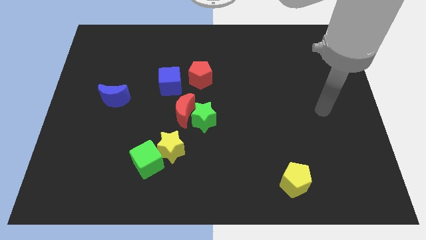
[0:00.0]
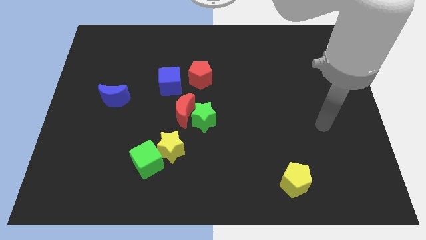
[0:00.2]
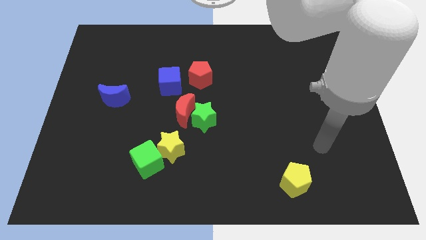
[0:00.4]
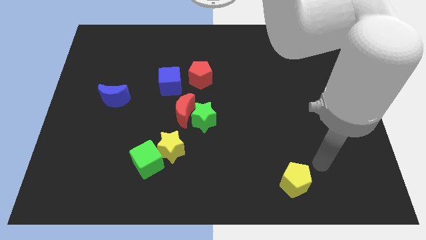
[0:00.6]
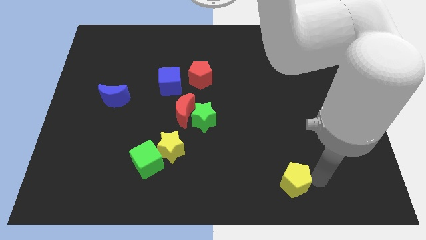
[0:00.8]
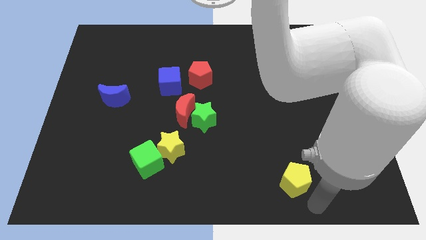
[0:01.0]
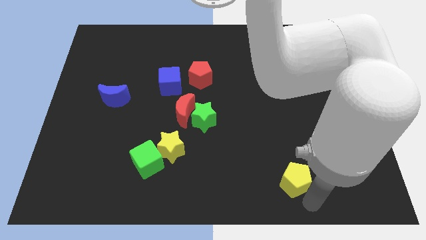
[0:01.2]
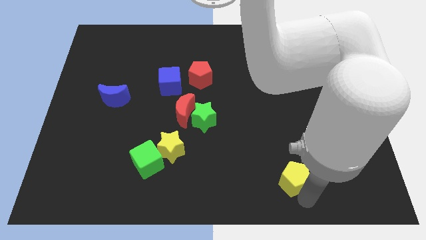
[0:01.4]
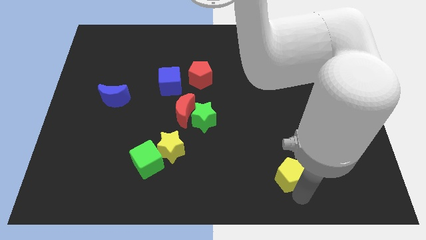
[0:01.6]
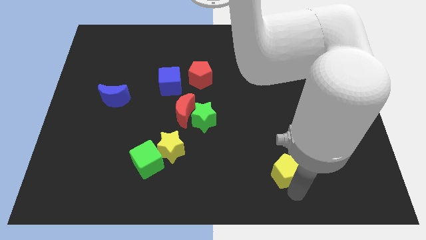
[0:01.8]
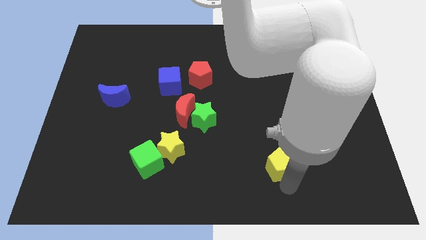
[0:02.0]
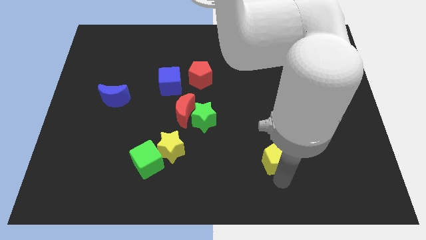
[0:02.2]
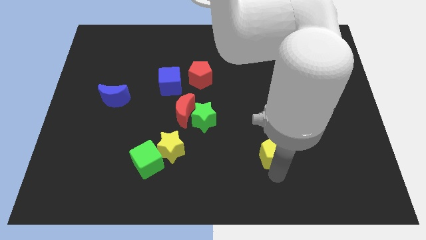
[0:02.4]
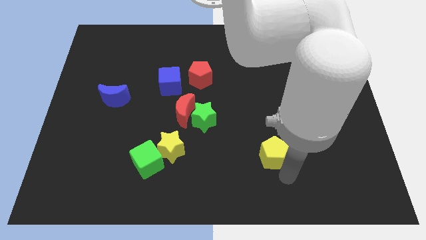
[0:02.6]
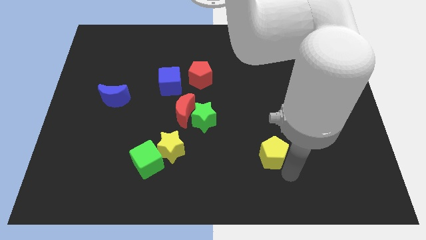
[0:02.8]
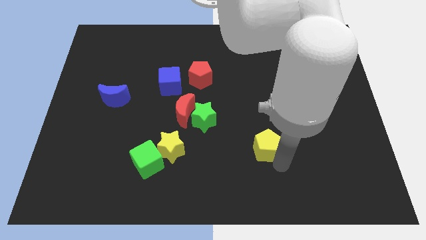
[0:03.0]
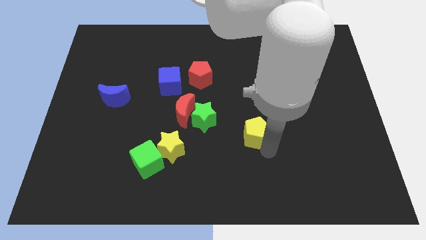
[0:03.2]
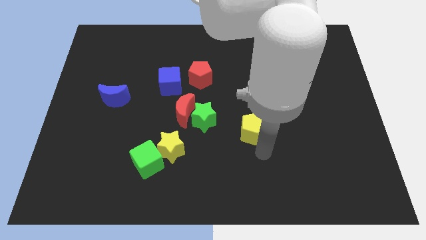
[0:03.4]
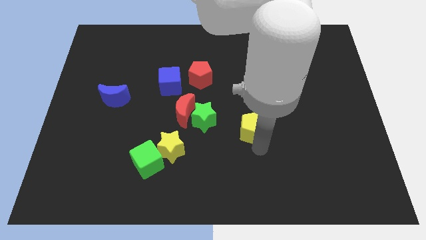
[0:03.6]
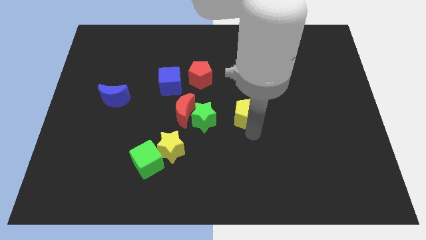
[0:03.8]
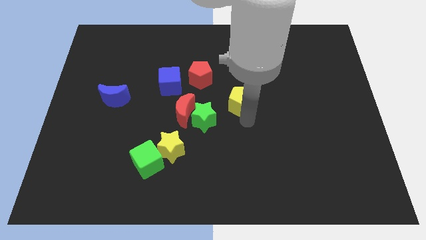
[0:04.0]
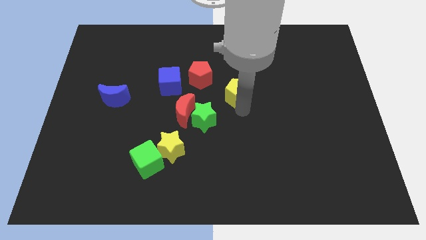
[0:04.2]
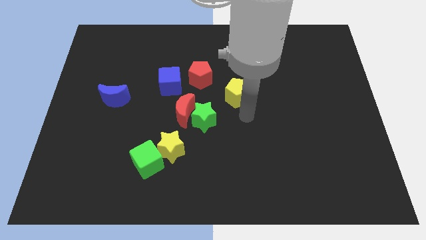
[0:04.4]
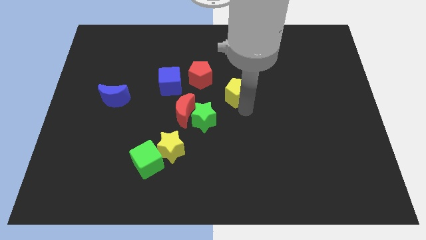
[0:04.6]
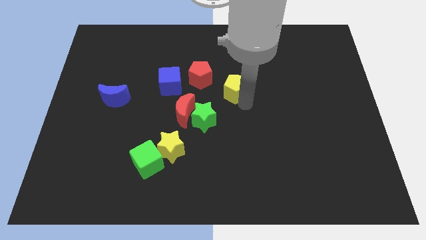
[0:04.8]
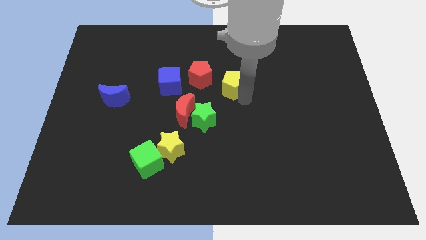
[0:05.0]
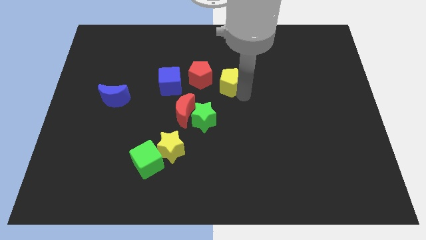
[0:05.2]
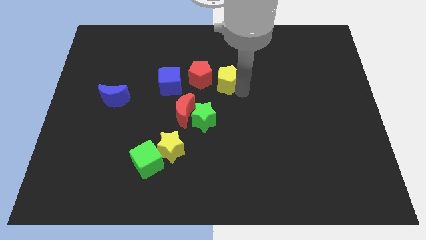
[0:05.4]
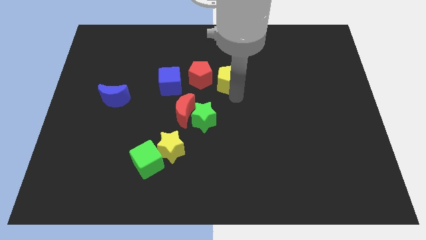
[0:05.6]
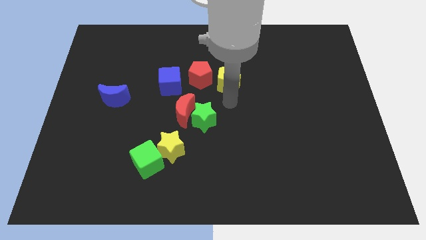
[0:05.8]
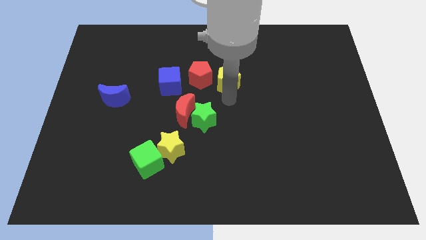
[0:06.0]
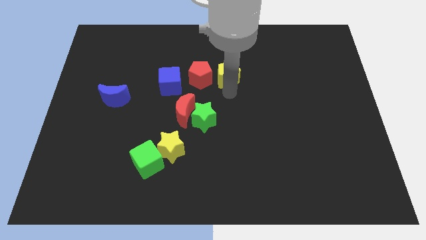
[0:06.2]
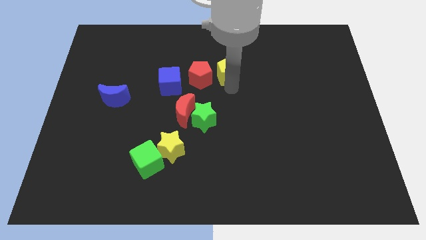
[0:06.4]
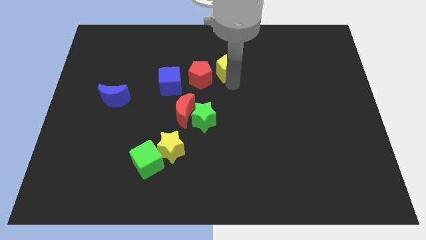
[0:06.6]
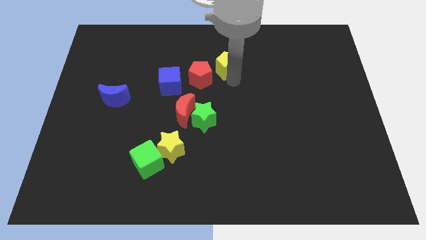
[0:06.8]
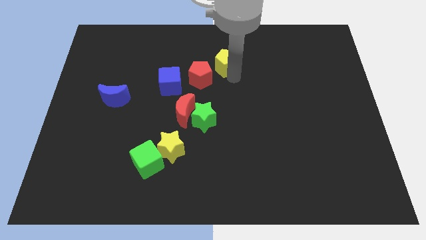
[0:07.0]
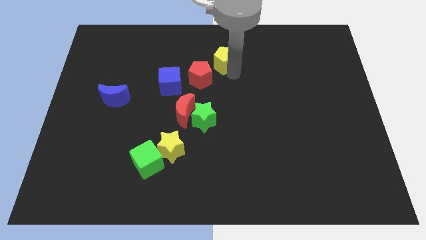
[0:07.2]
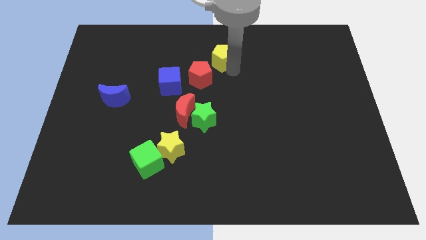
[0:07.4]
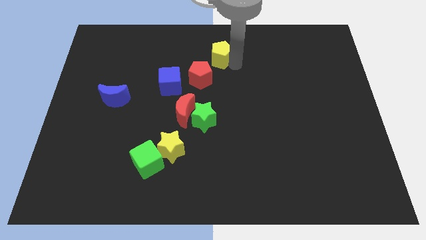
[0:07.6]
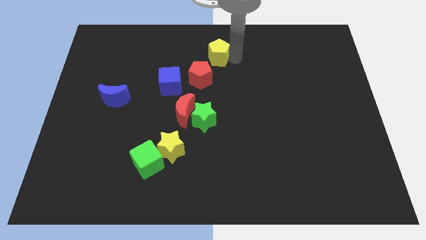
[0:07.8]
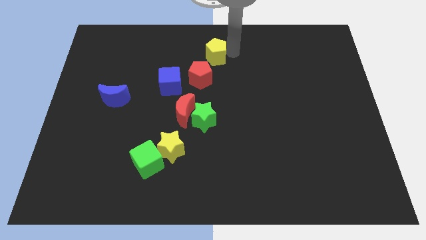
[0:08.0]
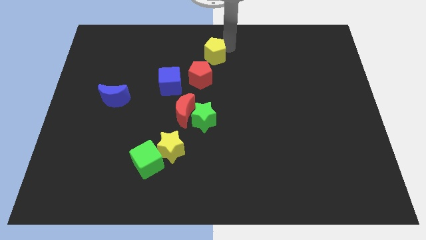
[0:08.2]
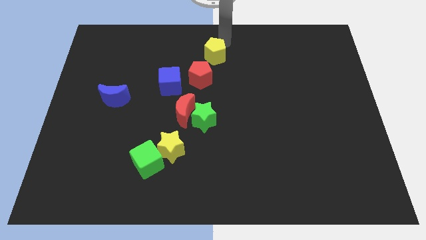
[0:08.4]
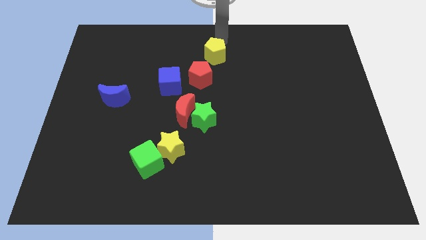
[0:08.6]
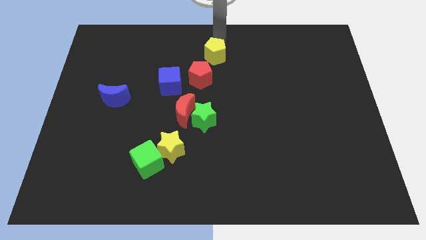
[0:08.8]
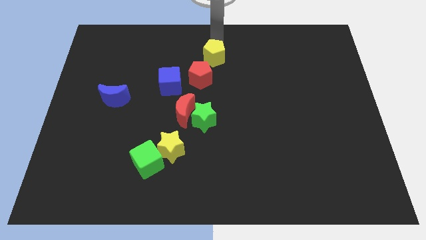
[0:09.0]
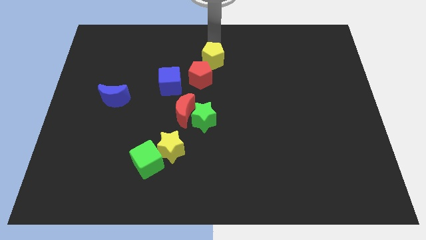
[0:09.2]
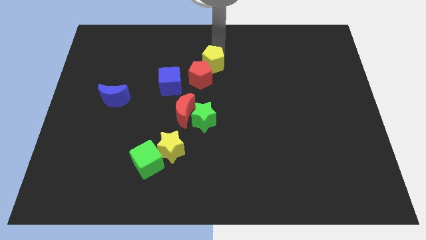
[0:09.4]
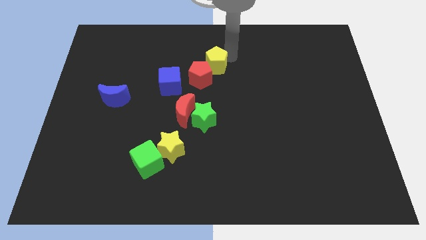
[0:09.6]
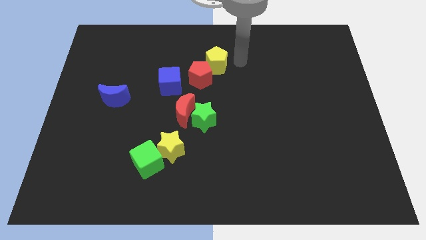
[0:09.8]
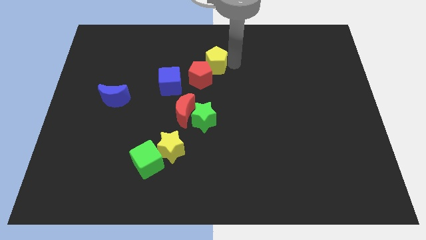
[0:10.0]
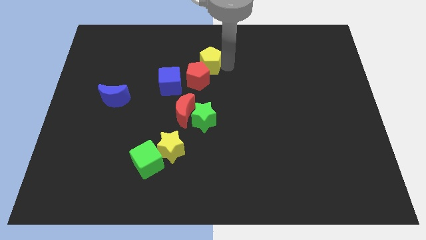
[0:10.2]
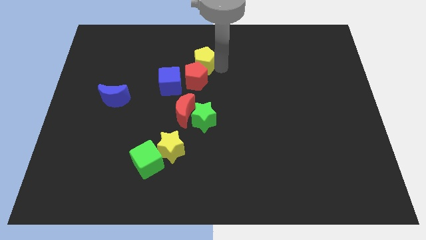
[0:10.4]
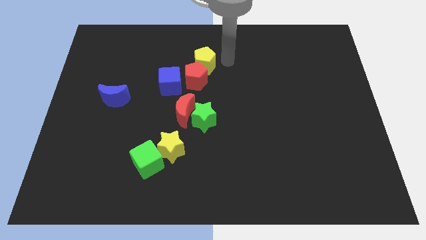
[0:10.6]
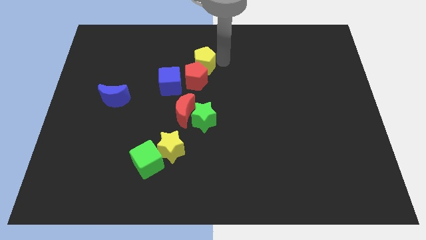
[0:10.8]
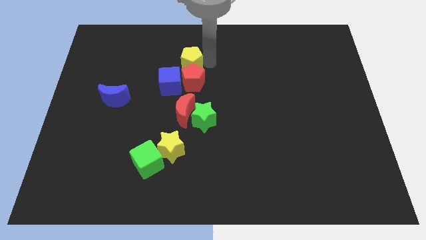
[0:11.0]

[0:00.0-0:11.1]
slide the yellow pentagon above the red moon

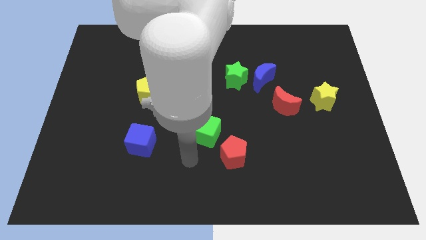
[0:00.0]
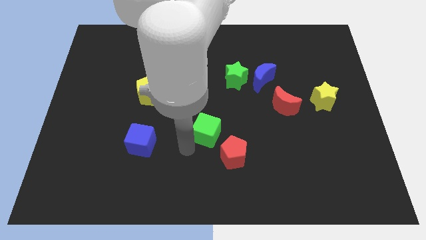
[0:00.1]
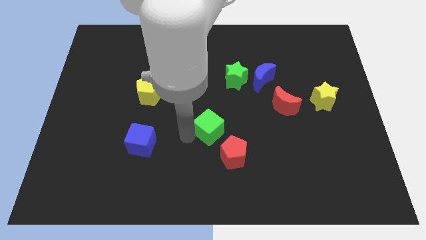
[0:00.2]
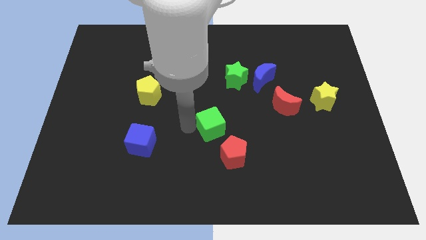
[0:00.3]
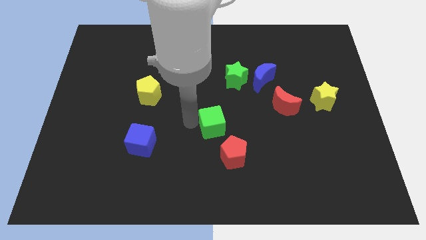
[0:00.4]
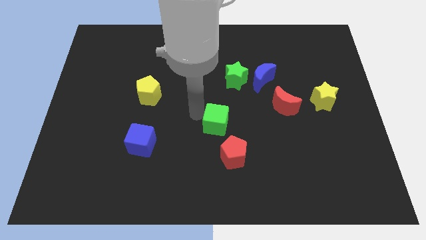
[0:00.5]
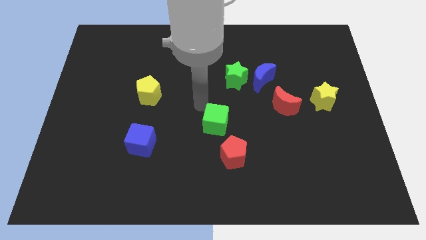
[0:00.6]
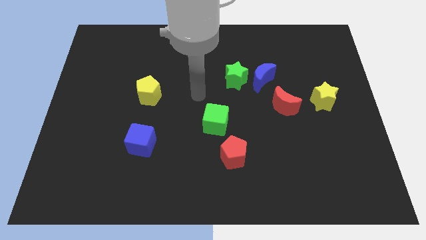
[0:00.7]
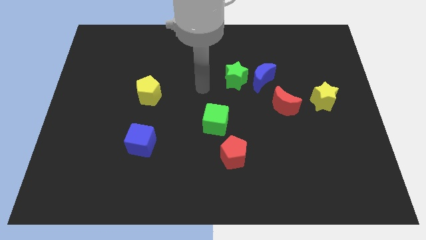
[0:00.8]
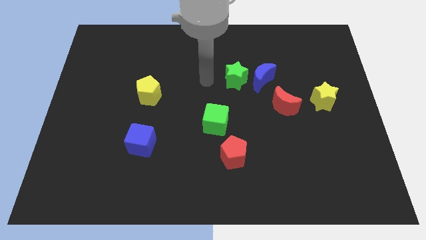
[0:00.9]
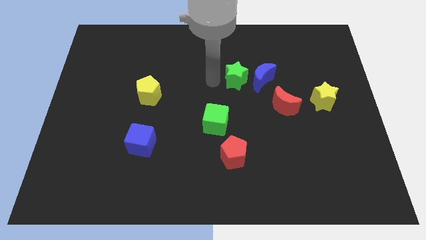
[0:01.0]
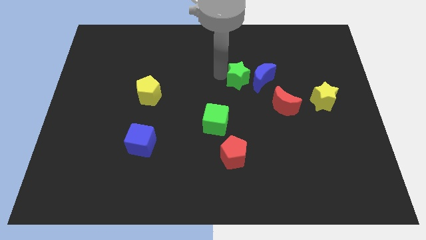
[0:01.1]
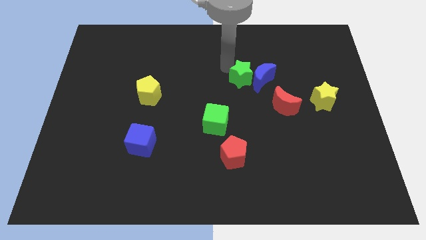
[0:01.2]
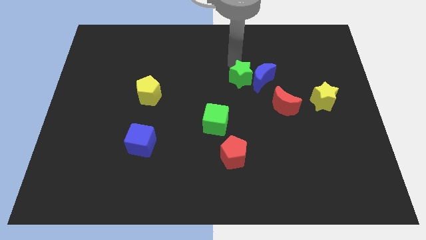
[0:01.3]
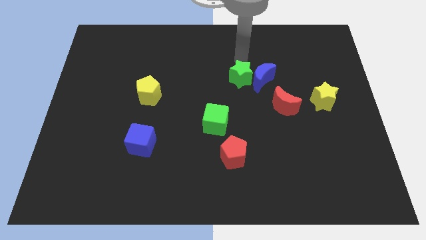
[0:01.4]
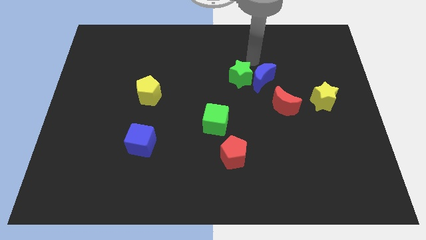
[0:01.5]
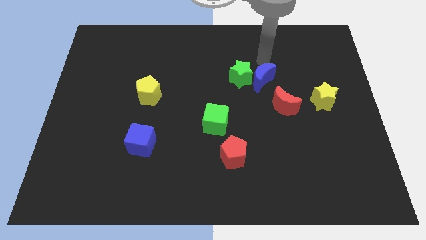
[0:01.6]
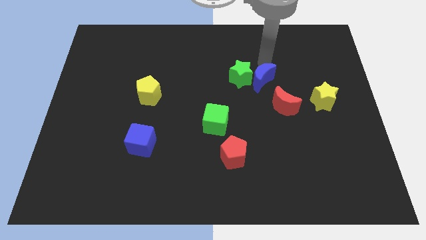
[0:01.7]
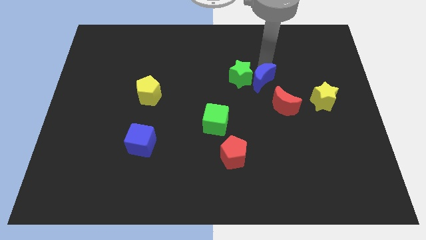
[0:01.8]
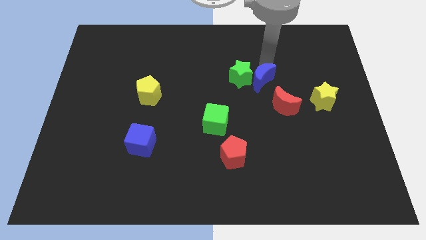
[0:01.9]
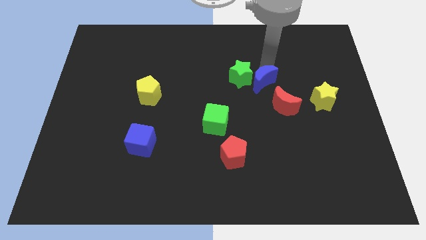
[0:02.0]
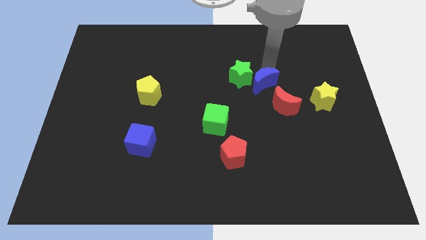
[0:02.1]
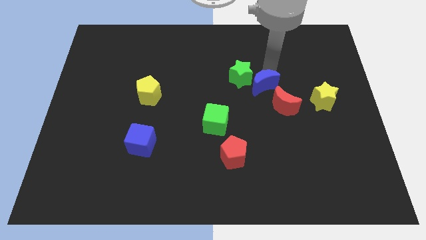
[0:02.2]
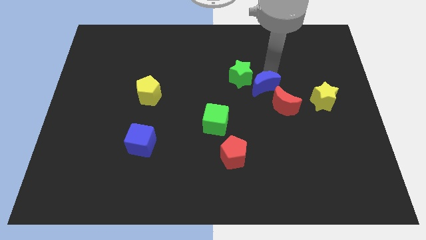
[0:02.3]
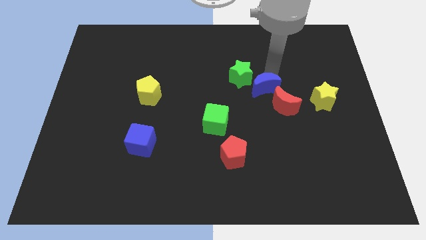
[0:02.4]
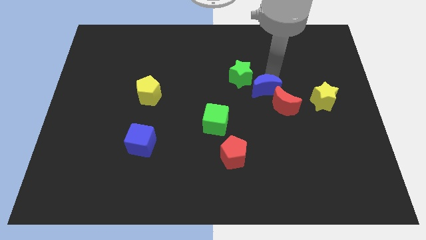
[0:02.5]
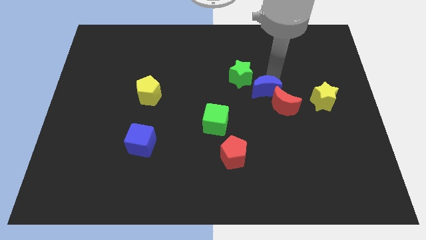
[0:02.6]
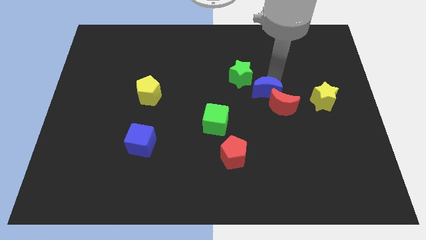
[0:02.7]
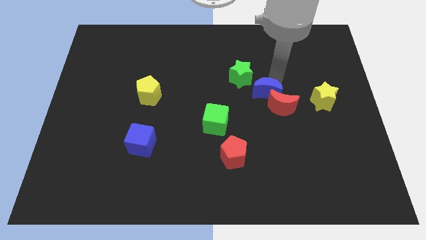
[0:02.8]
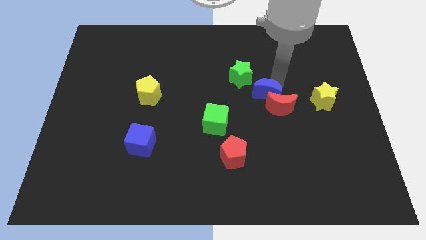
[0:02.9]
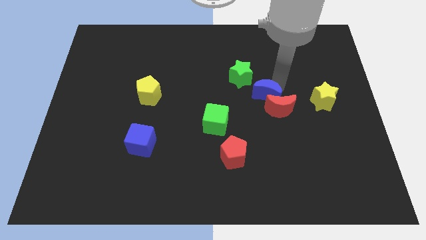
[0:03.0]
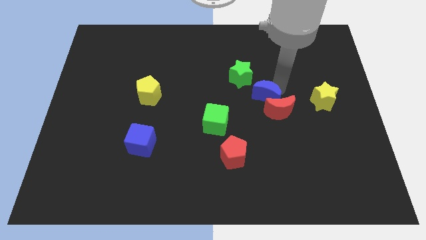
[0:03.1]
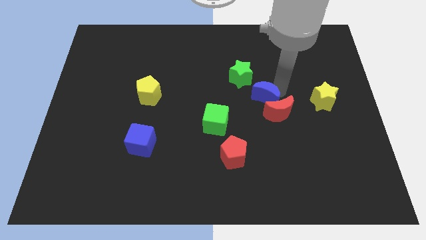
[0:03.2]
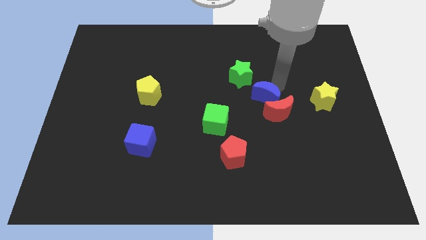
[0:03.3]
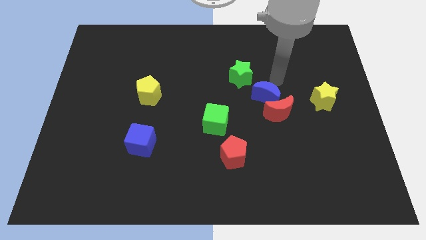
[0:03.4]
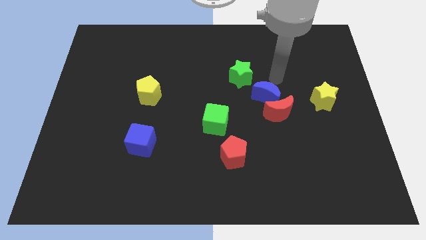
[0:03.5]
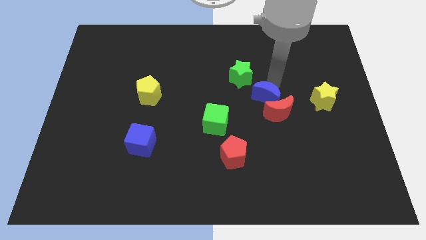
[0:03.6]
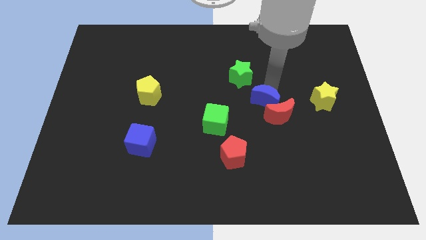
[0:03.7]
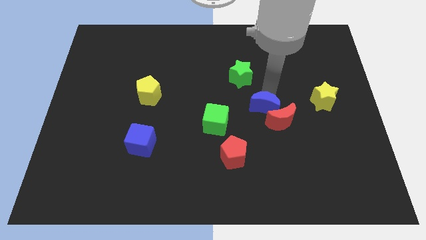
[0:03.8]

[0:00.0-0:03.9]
put the blue moon to the right side of the green cube
